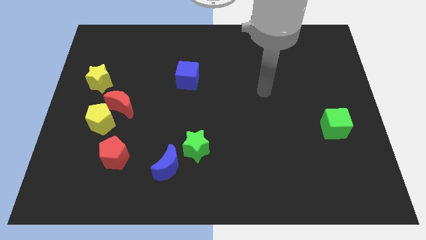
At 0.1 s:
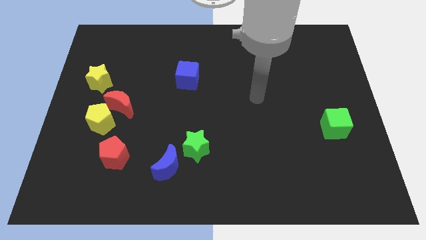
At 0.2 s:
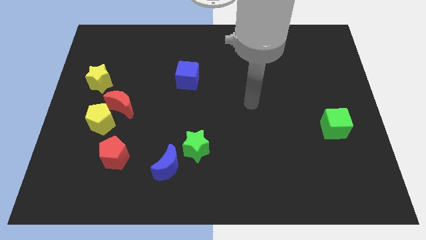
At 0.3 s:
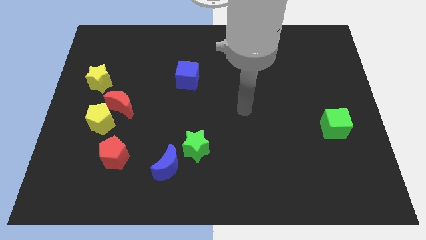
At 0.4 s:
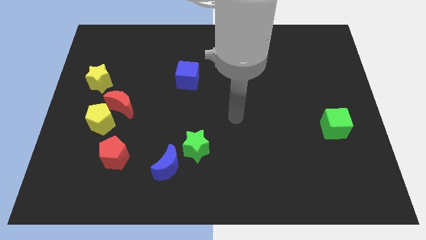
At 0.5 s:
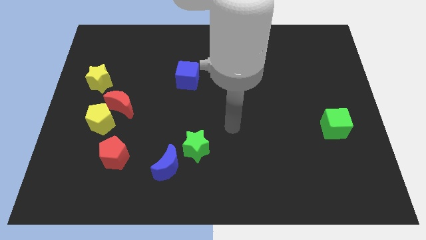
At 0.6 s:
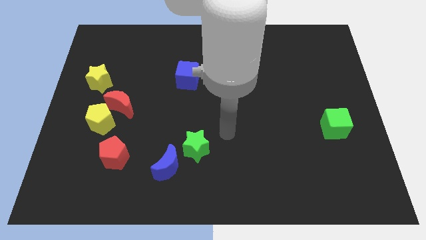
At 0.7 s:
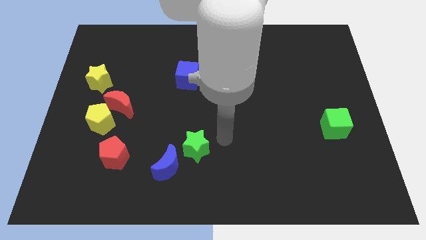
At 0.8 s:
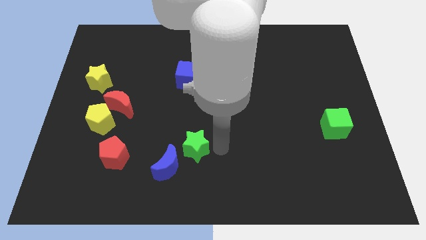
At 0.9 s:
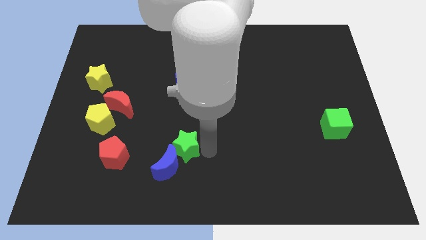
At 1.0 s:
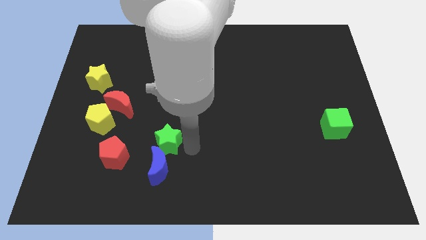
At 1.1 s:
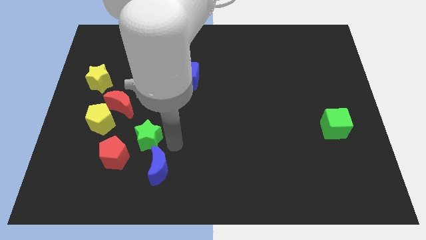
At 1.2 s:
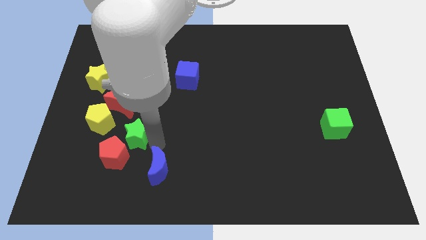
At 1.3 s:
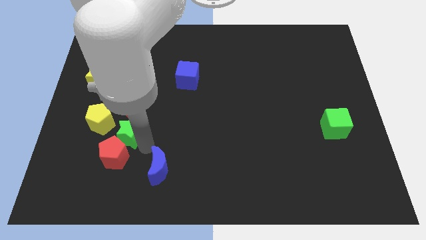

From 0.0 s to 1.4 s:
move the blue moon away from the green star

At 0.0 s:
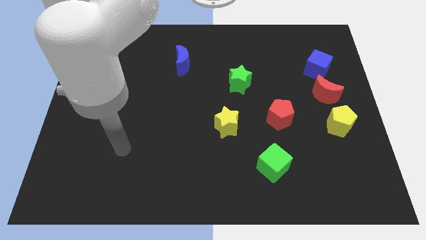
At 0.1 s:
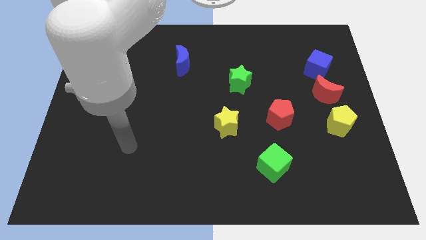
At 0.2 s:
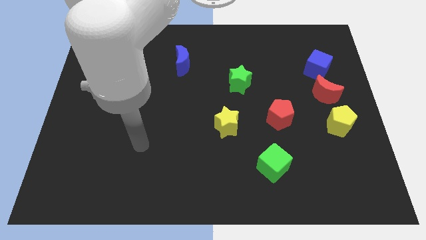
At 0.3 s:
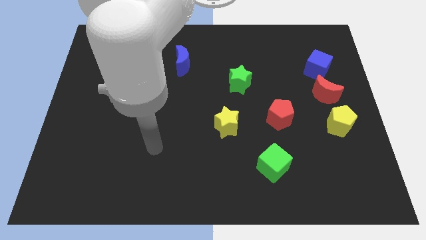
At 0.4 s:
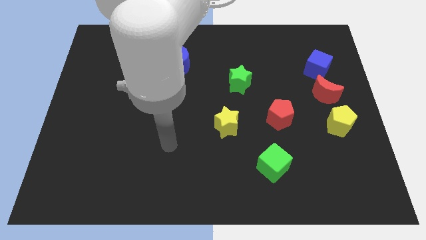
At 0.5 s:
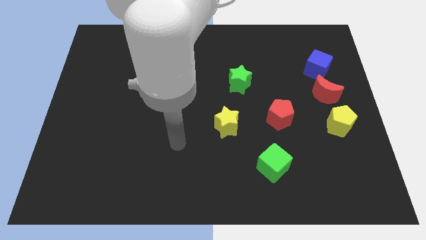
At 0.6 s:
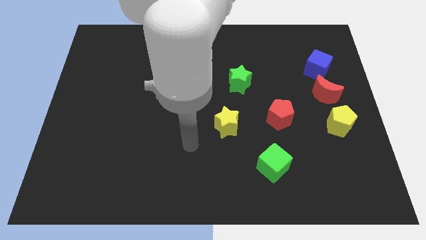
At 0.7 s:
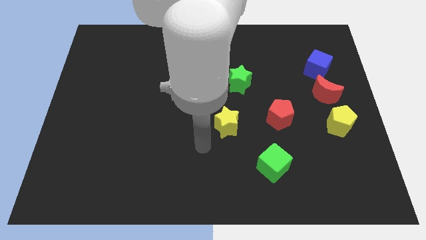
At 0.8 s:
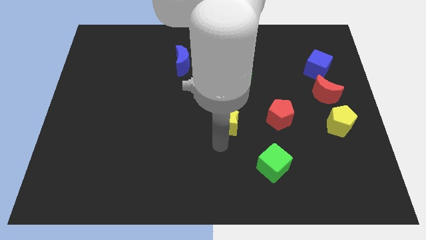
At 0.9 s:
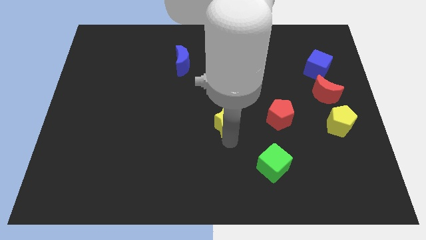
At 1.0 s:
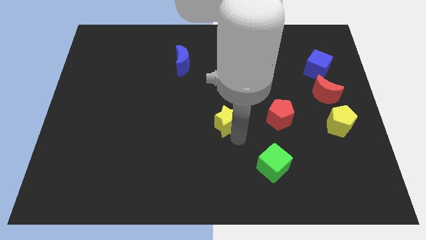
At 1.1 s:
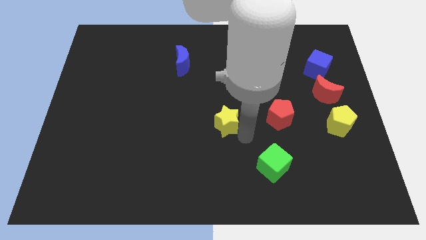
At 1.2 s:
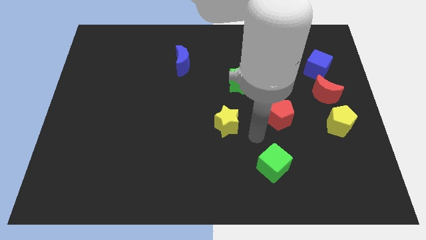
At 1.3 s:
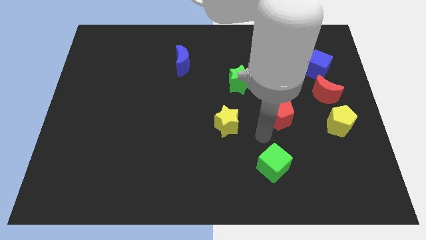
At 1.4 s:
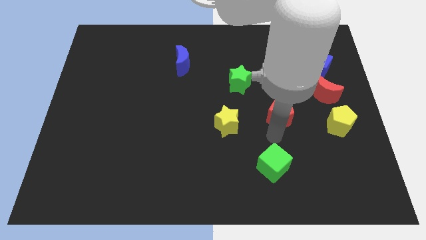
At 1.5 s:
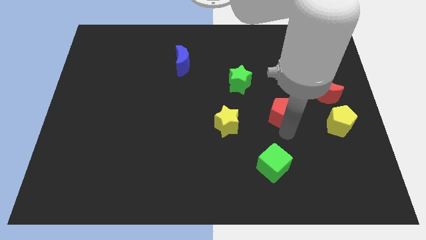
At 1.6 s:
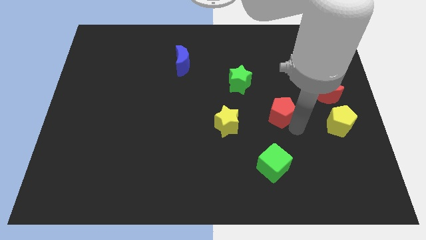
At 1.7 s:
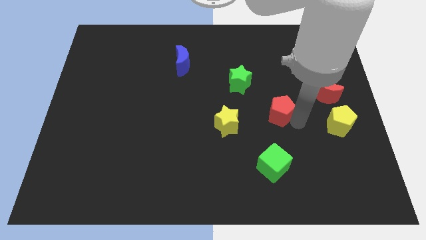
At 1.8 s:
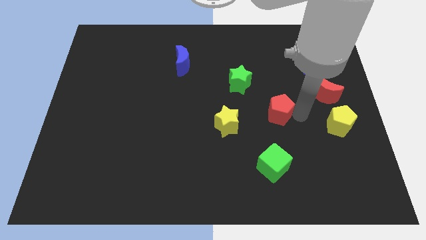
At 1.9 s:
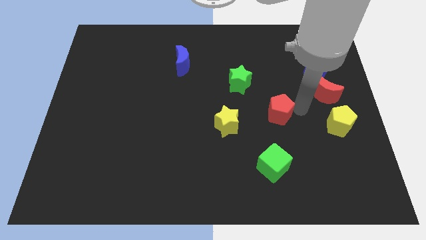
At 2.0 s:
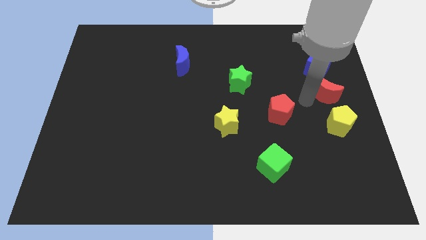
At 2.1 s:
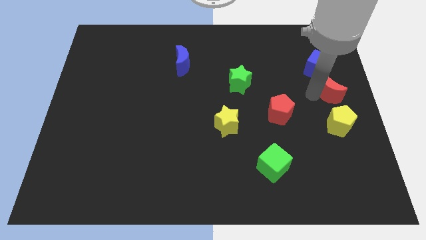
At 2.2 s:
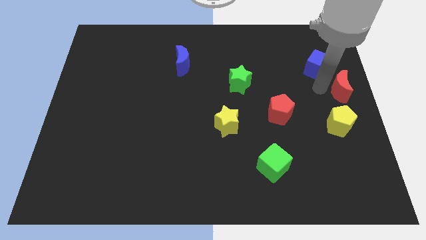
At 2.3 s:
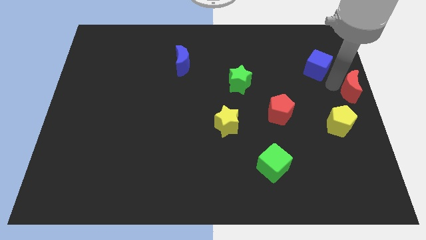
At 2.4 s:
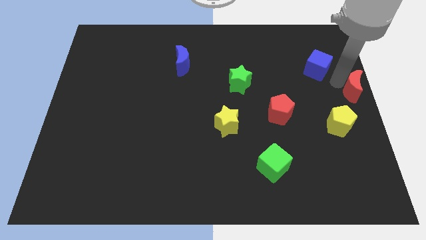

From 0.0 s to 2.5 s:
move the blue cube away from the red moon

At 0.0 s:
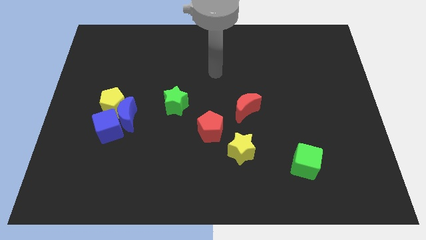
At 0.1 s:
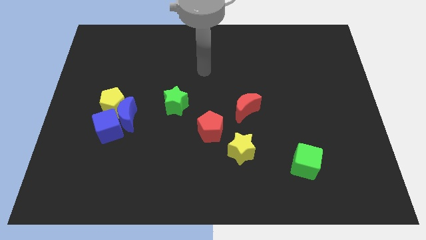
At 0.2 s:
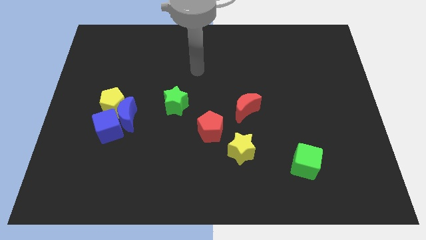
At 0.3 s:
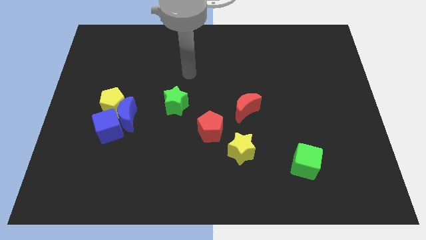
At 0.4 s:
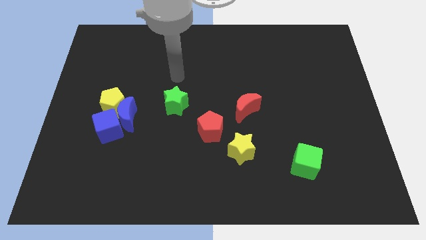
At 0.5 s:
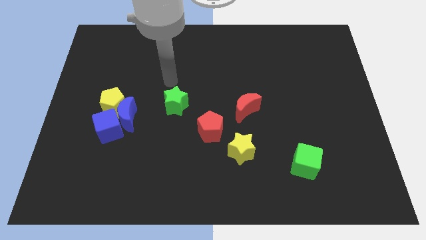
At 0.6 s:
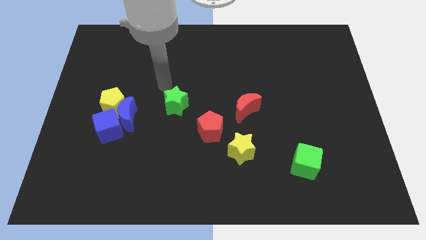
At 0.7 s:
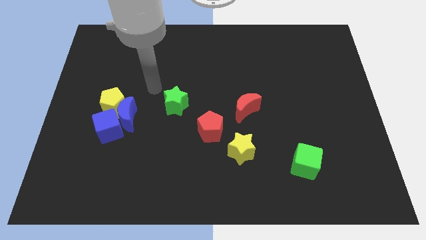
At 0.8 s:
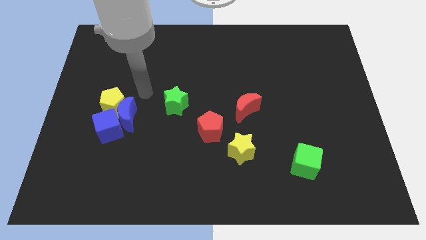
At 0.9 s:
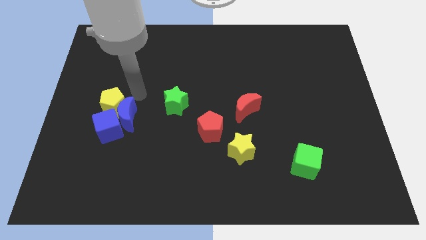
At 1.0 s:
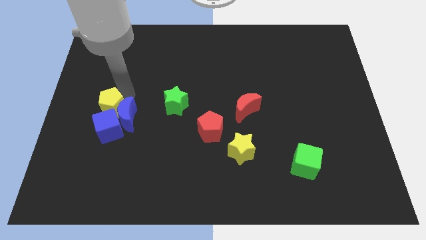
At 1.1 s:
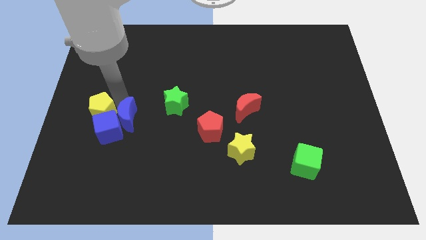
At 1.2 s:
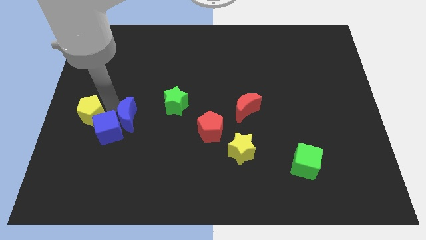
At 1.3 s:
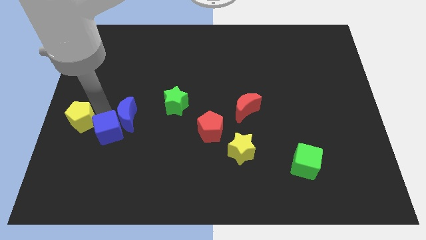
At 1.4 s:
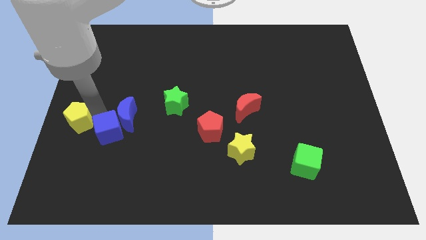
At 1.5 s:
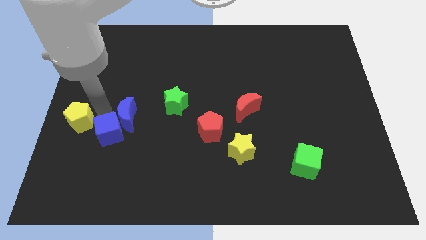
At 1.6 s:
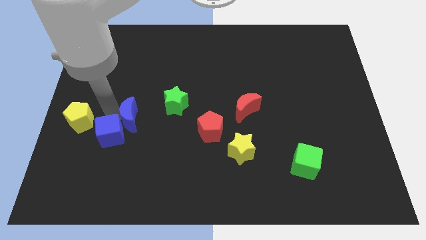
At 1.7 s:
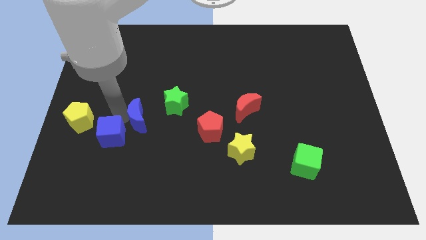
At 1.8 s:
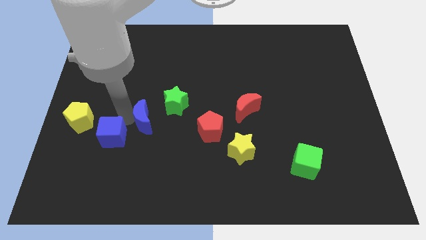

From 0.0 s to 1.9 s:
pull the blue moon apart from the blue cube and yellow pentagon

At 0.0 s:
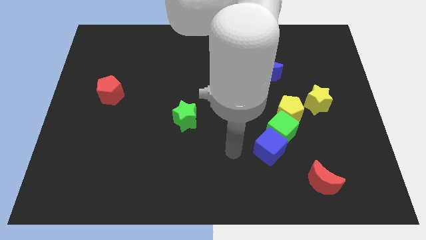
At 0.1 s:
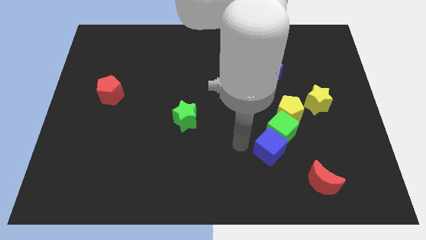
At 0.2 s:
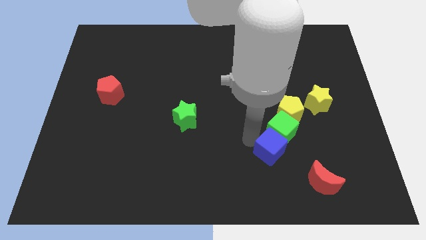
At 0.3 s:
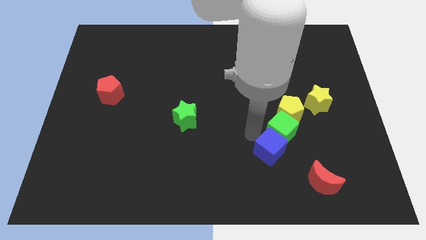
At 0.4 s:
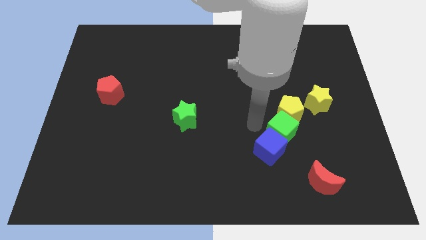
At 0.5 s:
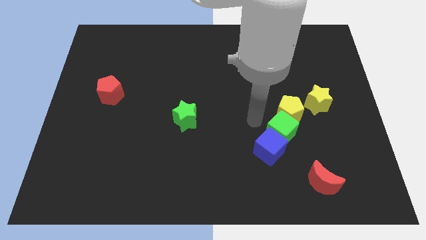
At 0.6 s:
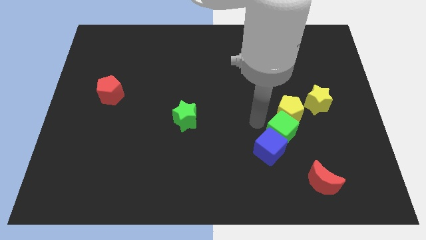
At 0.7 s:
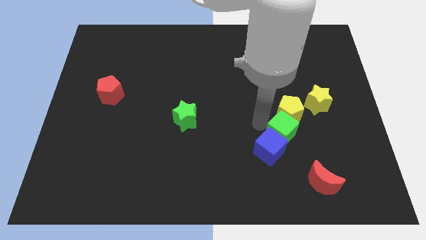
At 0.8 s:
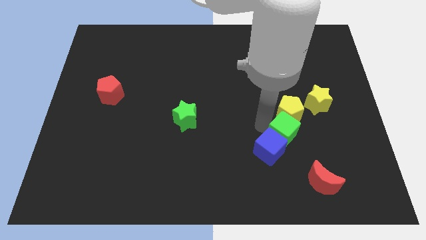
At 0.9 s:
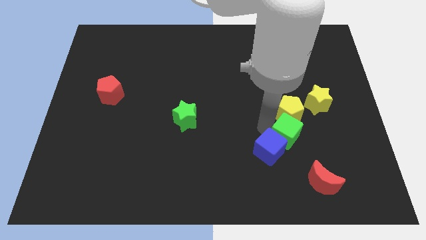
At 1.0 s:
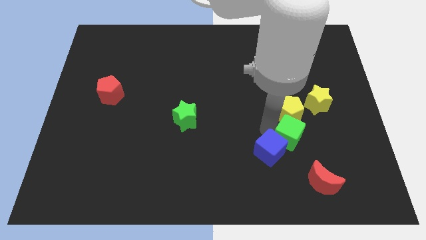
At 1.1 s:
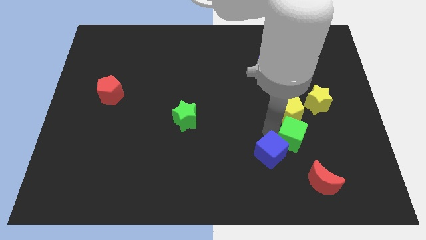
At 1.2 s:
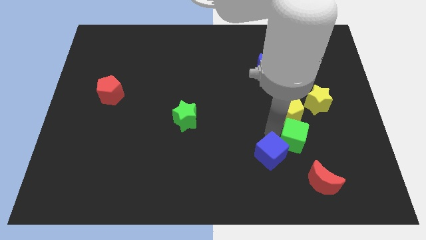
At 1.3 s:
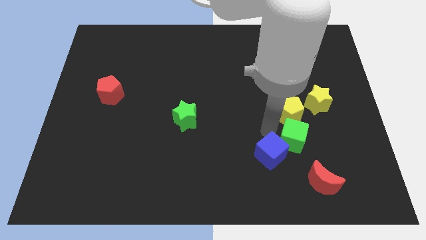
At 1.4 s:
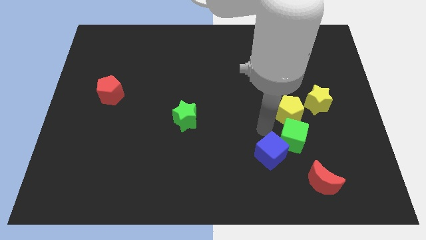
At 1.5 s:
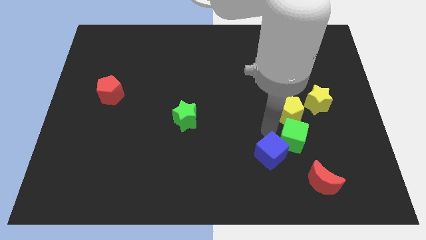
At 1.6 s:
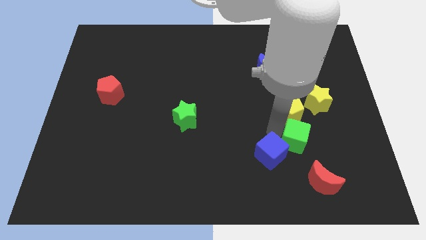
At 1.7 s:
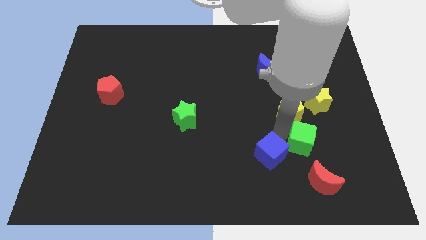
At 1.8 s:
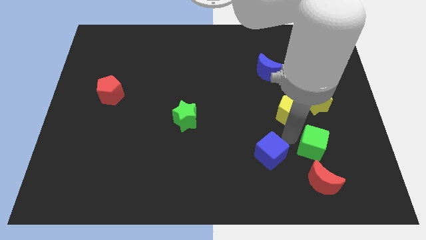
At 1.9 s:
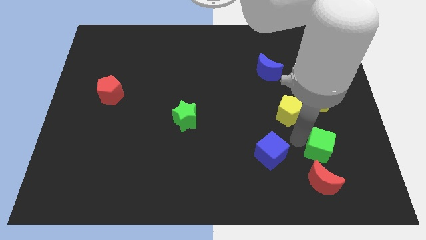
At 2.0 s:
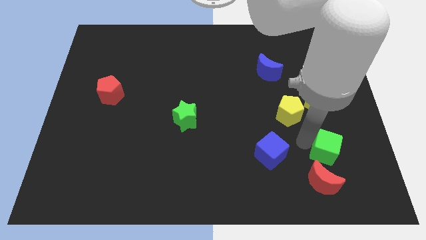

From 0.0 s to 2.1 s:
move the green cube away from the yellow pentagon and blue cube

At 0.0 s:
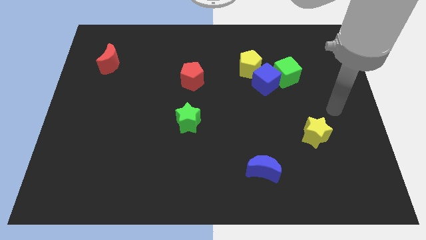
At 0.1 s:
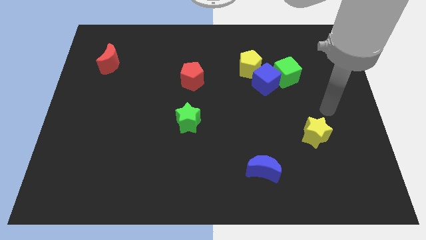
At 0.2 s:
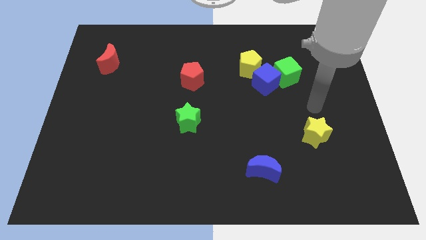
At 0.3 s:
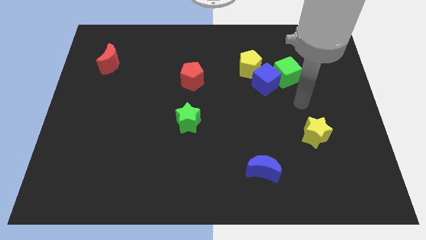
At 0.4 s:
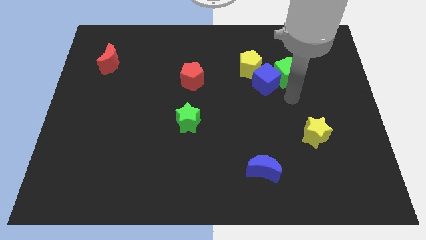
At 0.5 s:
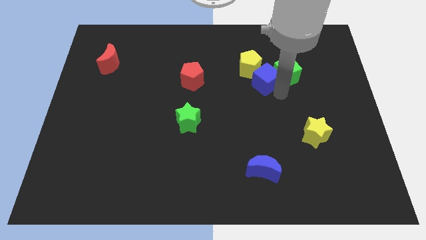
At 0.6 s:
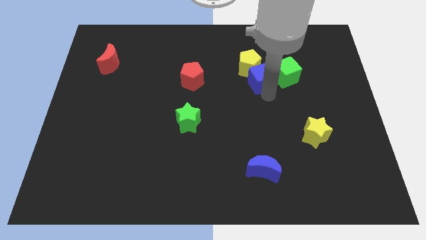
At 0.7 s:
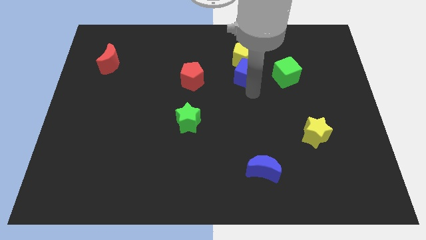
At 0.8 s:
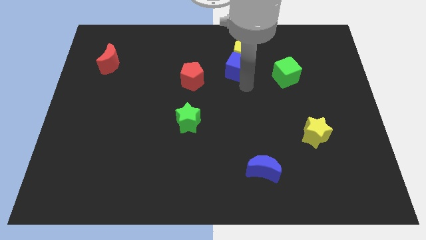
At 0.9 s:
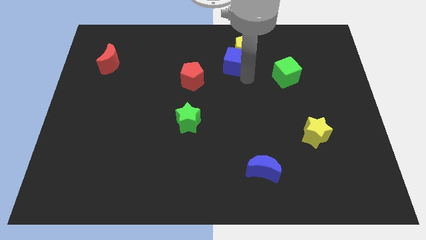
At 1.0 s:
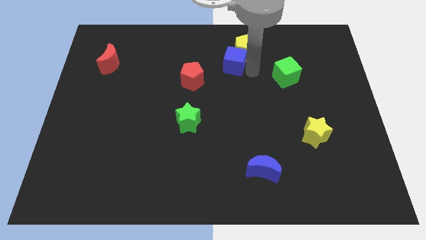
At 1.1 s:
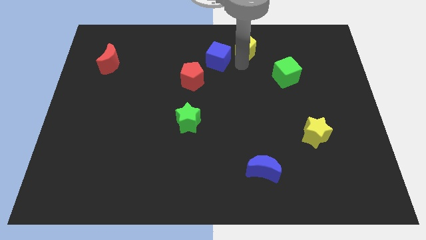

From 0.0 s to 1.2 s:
move the blue cube away from the green cube and yellow pentagon

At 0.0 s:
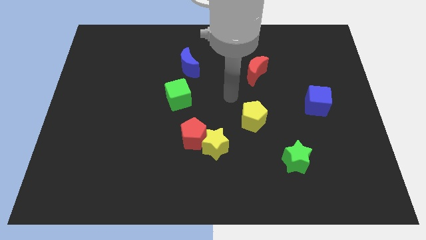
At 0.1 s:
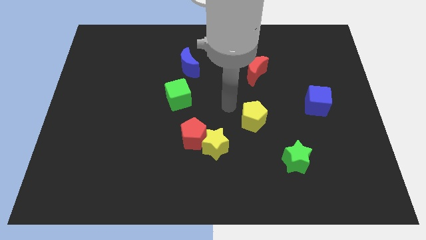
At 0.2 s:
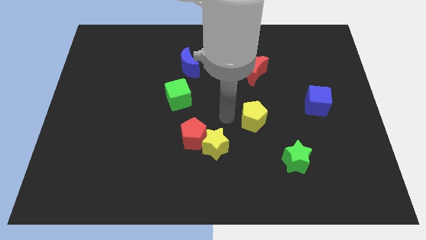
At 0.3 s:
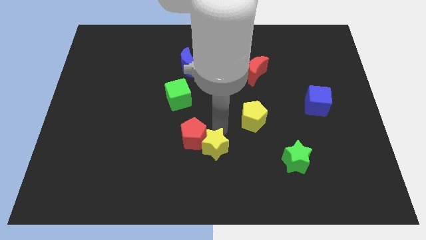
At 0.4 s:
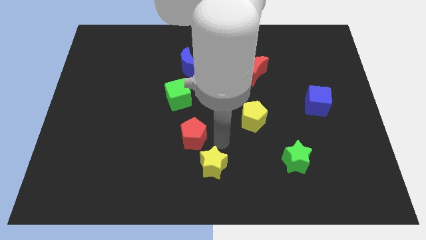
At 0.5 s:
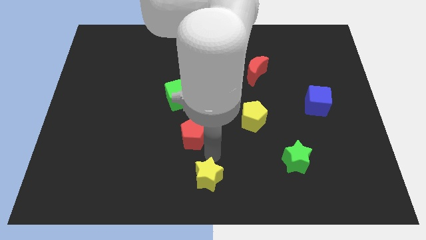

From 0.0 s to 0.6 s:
move the red pentagon away from the yellow star
